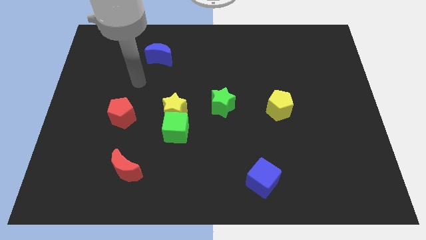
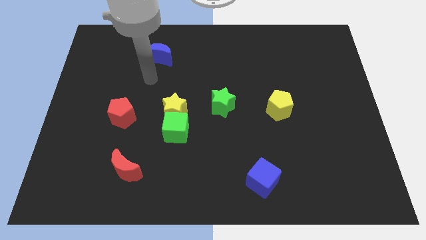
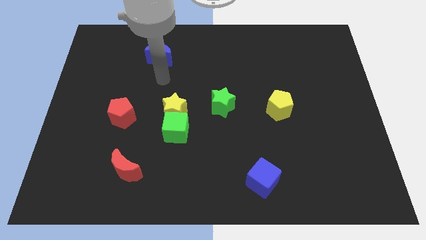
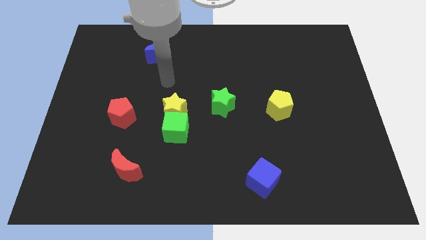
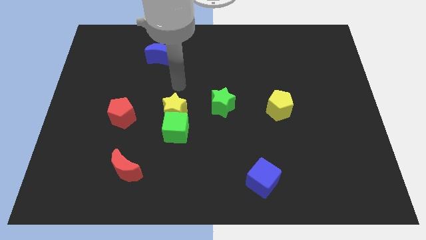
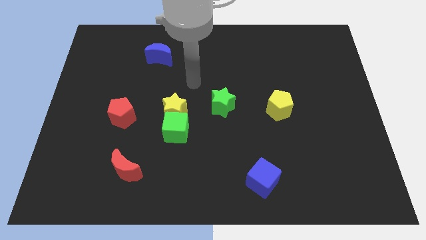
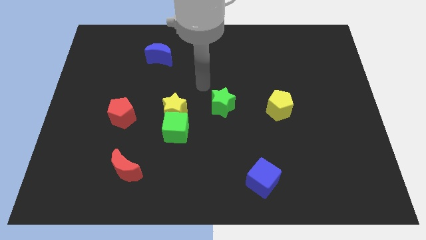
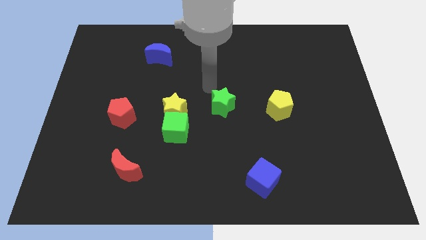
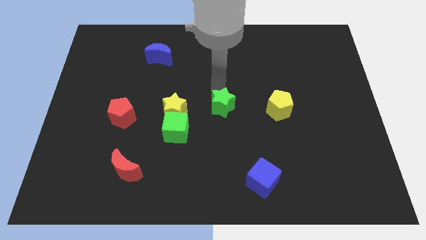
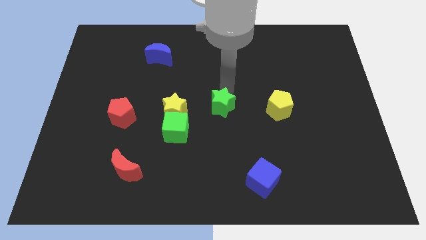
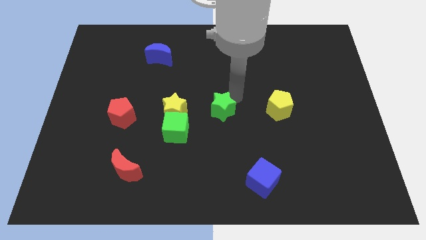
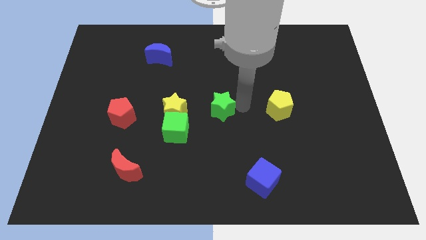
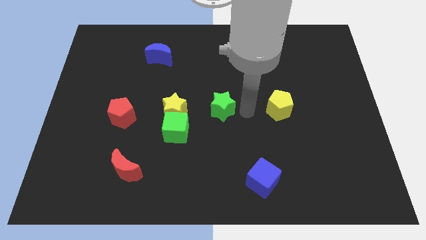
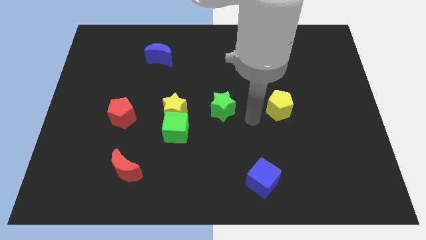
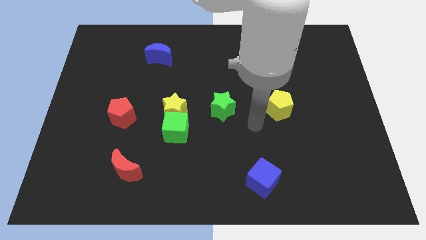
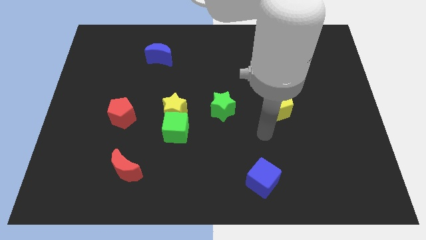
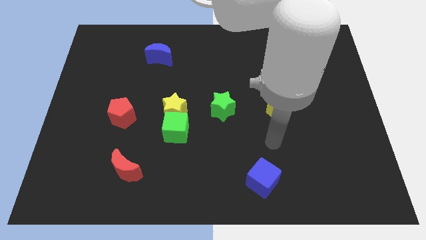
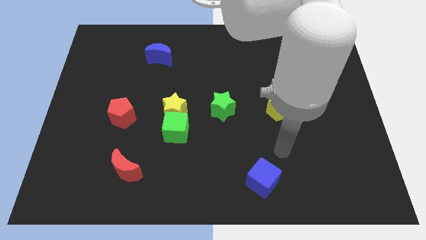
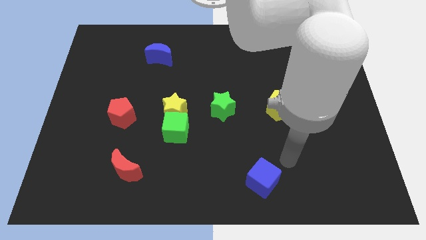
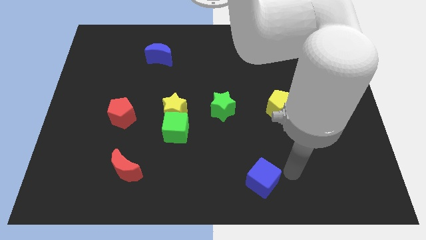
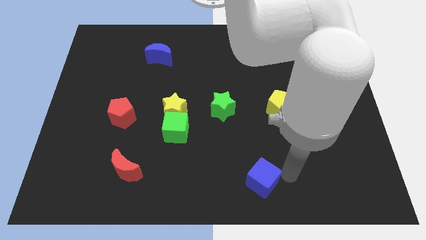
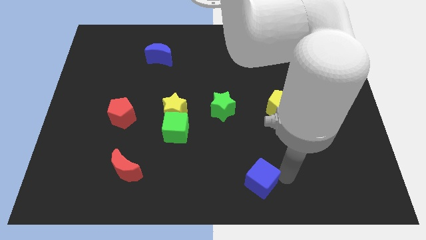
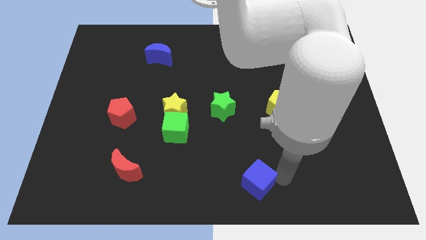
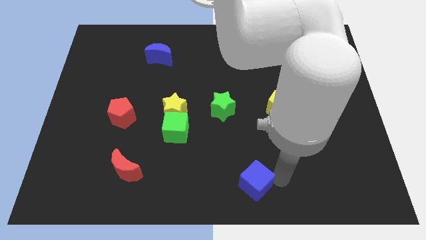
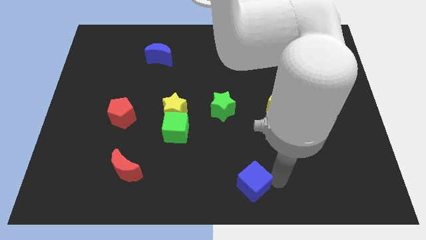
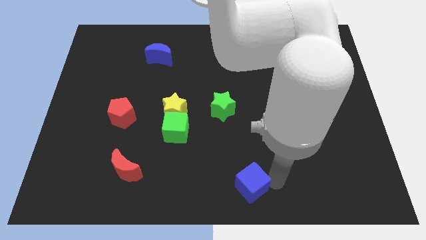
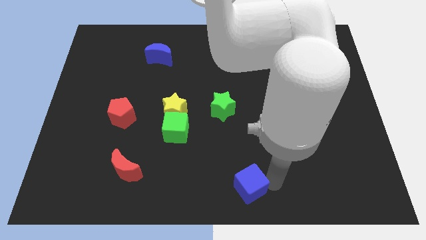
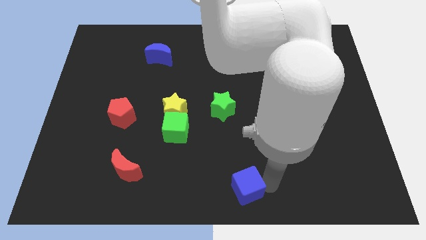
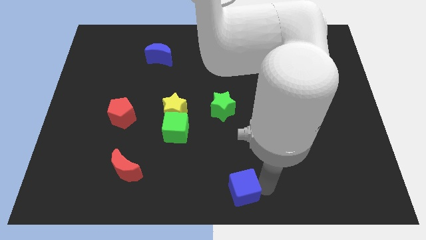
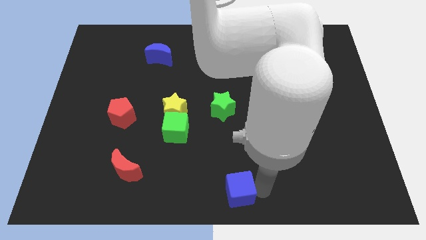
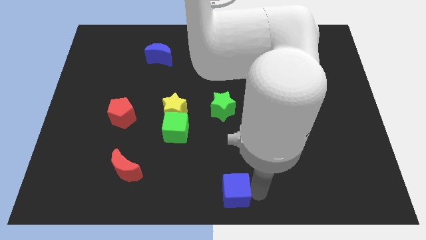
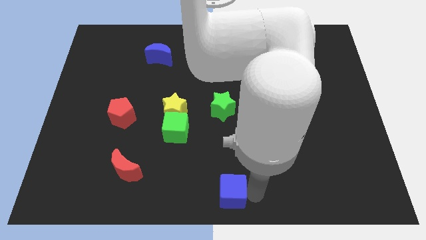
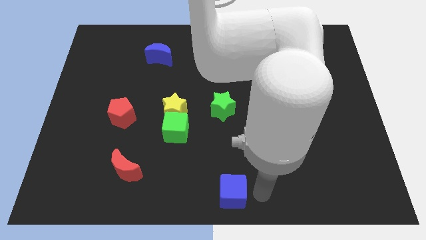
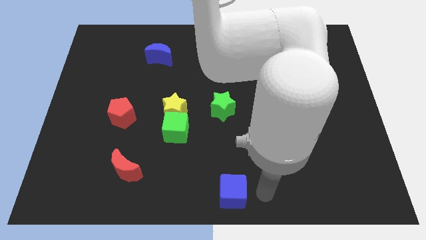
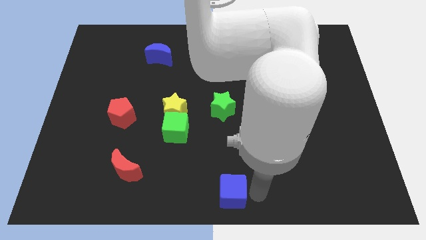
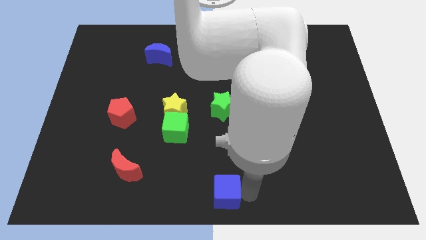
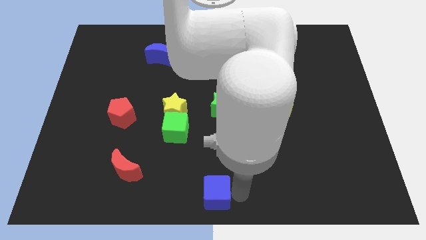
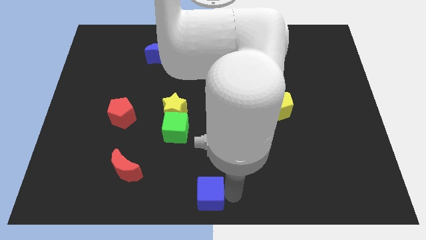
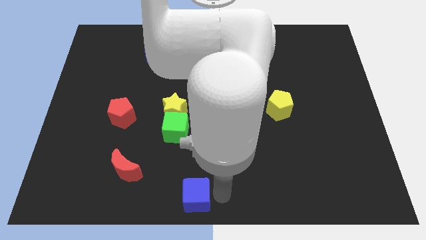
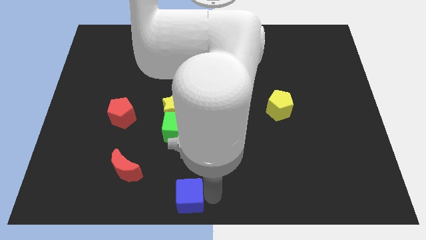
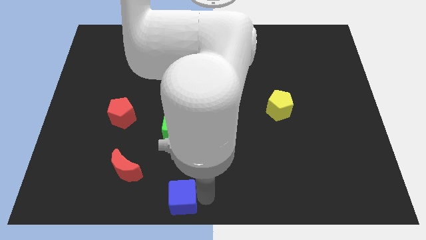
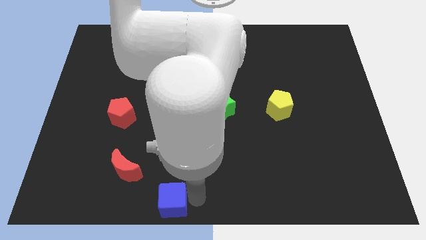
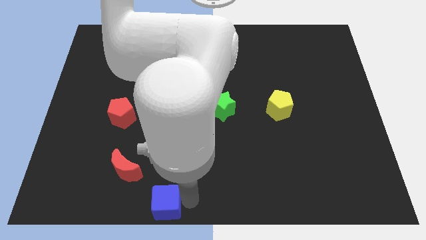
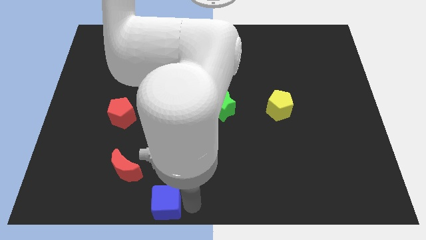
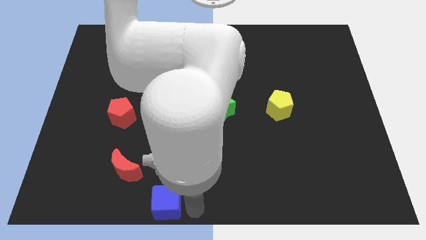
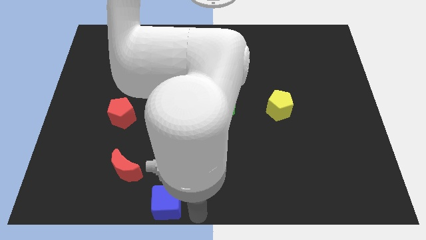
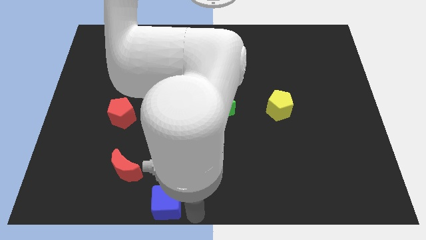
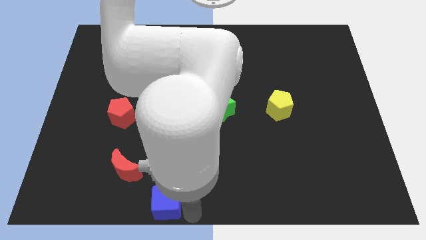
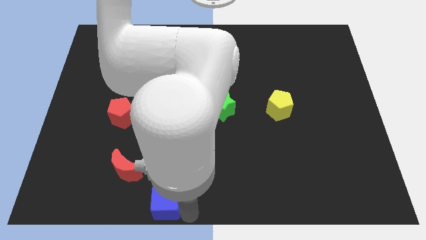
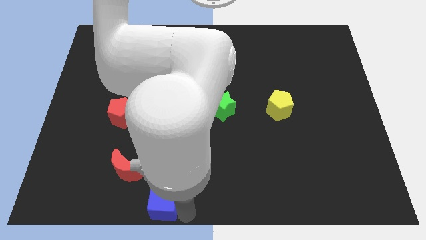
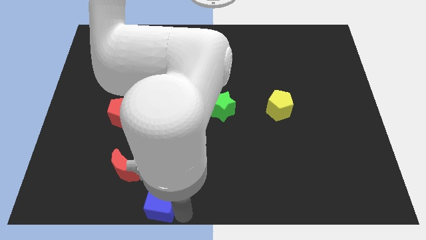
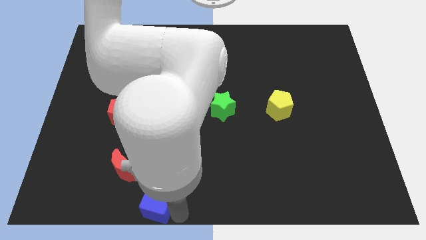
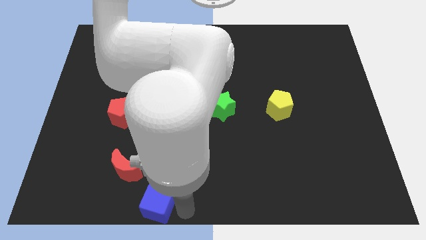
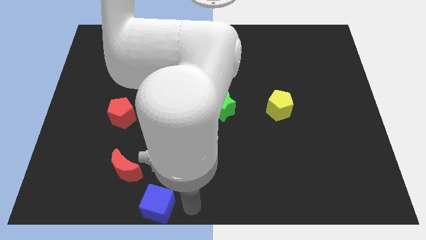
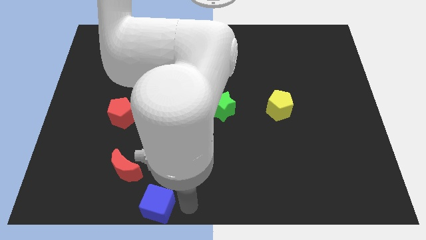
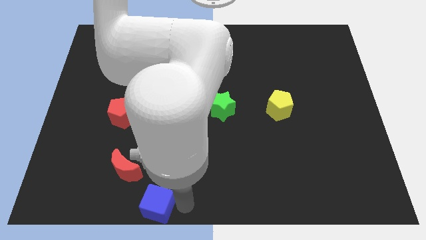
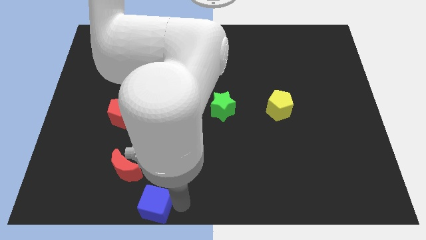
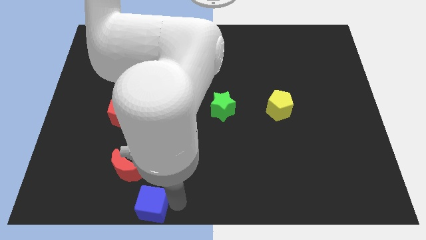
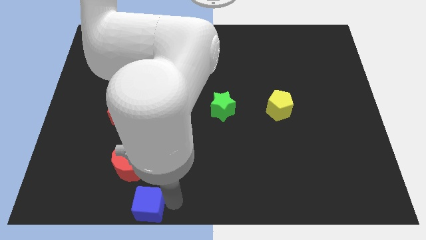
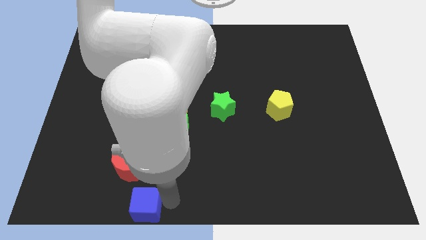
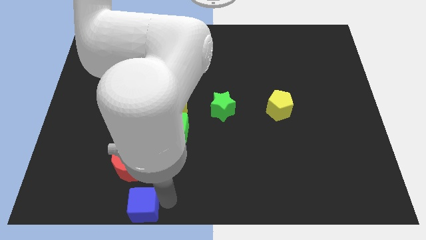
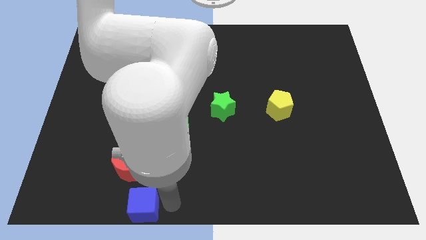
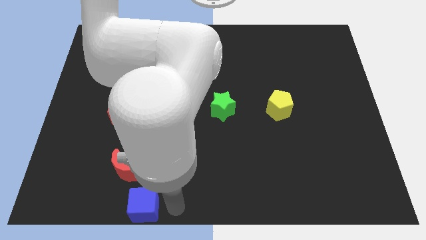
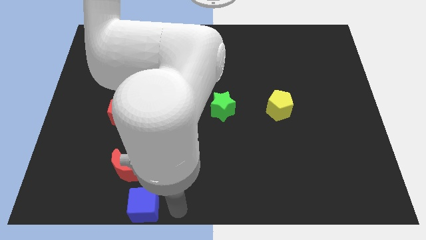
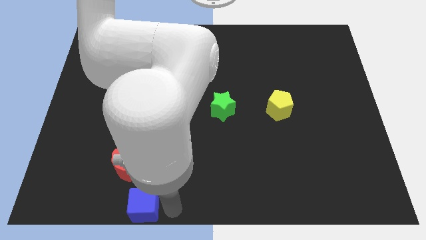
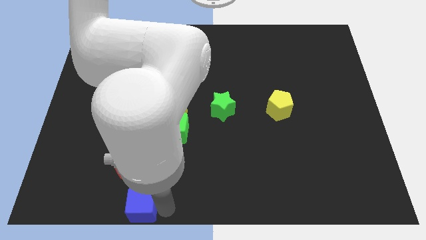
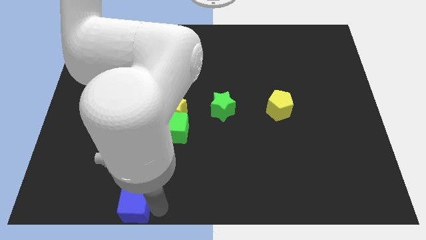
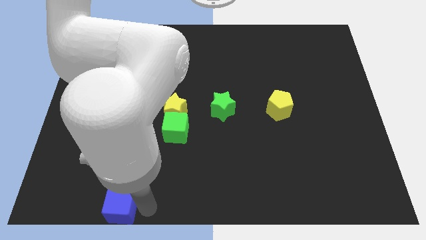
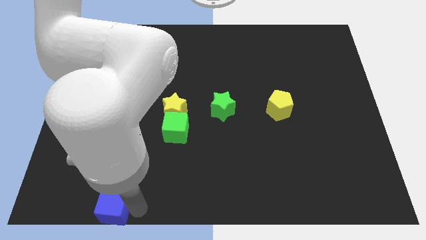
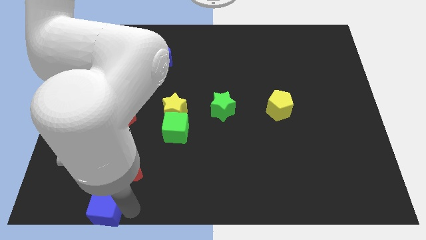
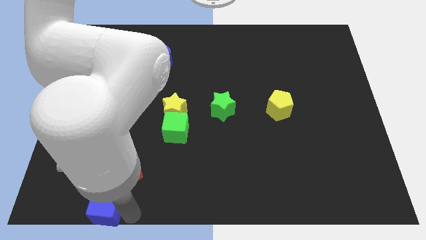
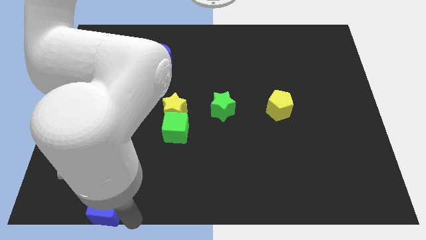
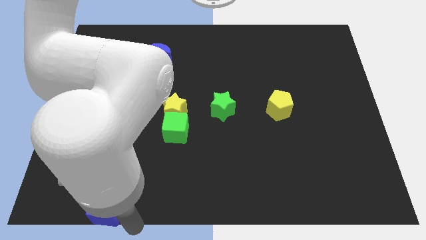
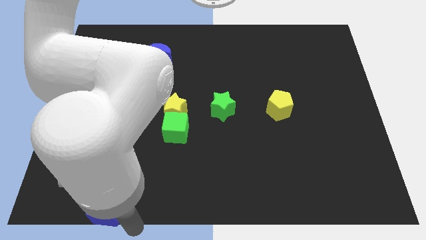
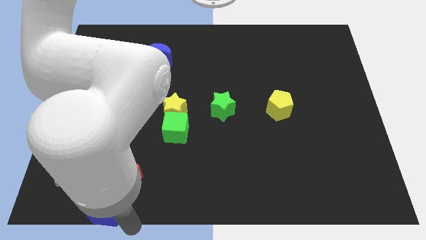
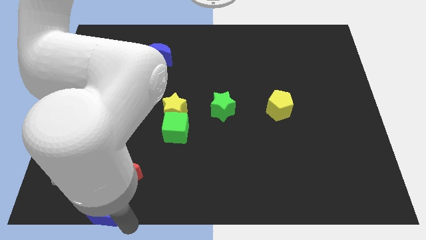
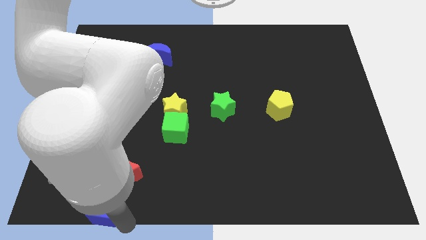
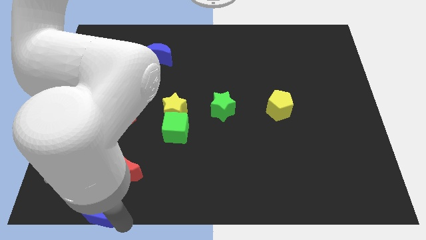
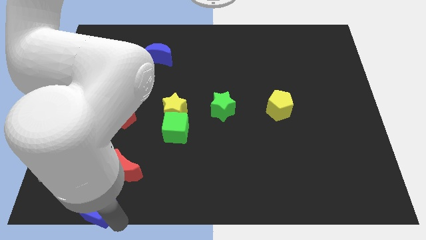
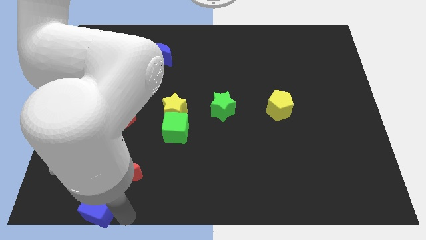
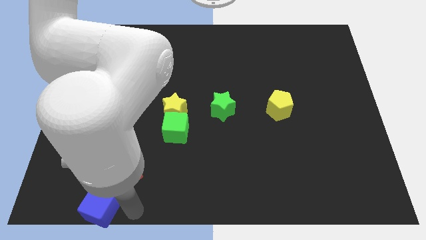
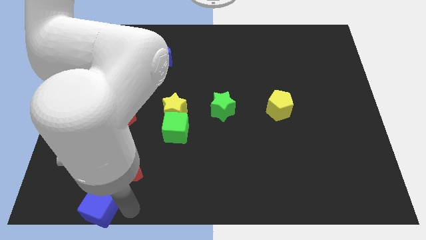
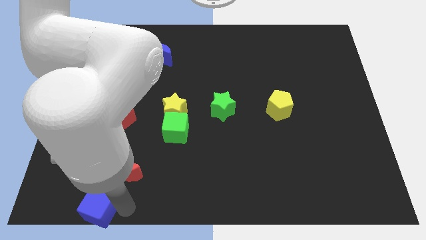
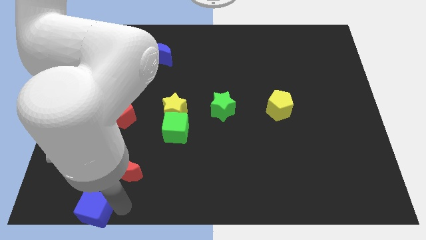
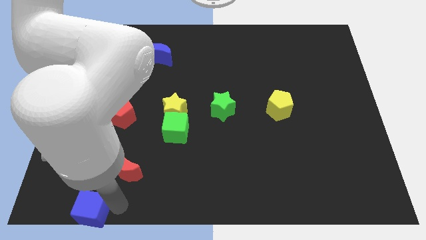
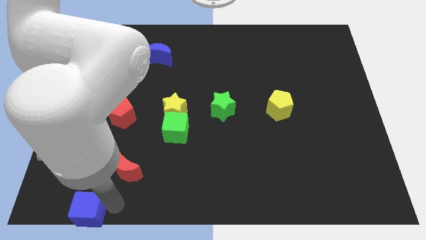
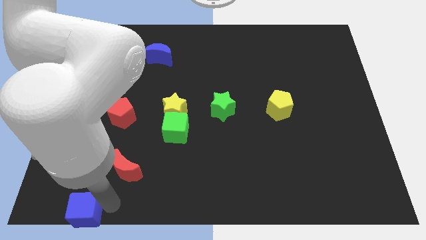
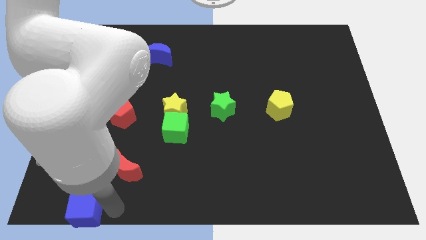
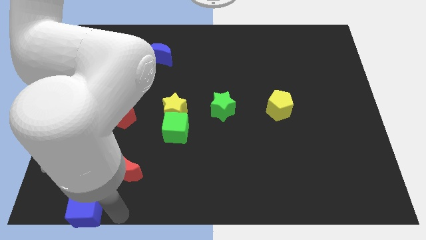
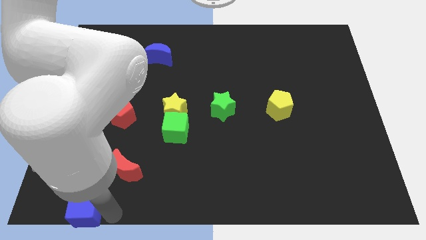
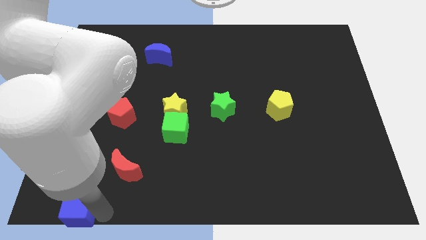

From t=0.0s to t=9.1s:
move the blue cube to the lower left corner
